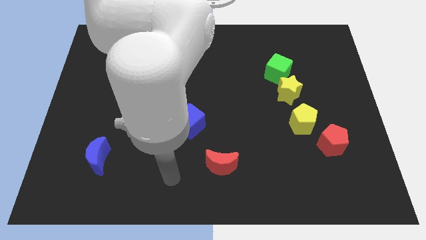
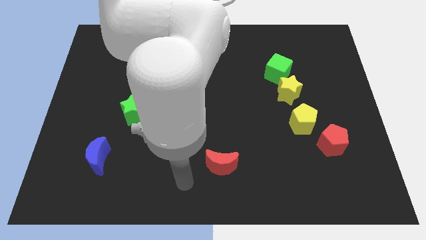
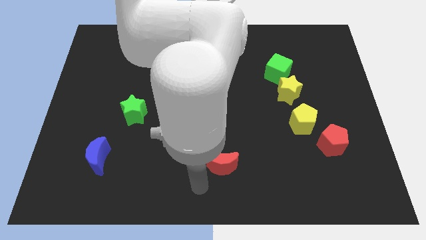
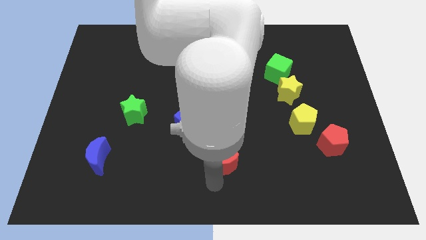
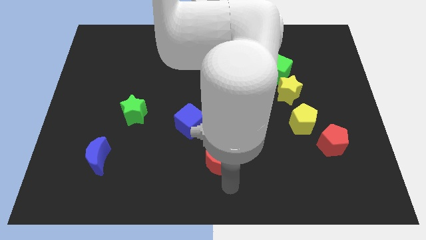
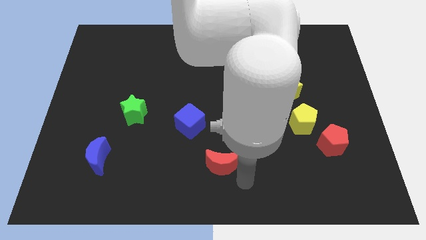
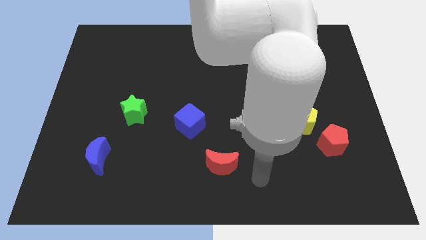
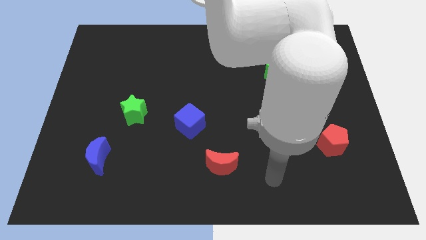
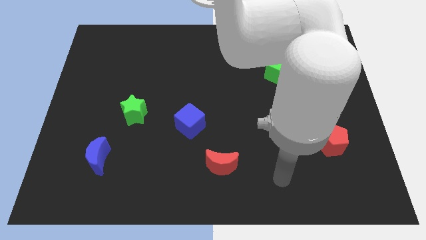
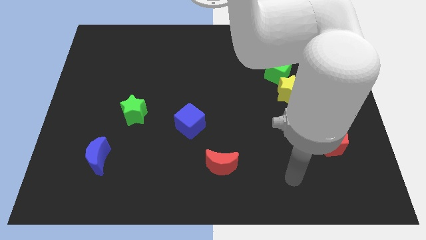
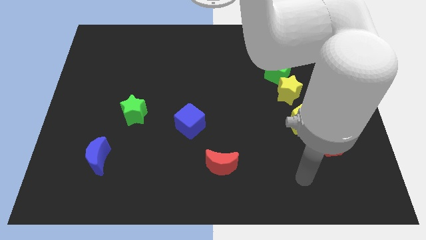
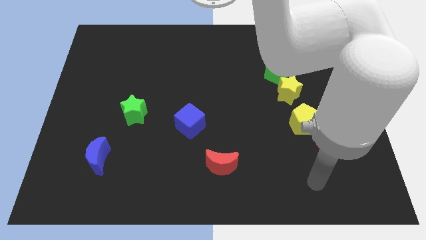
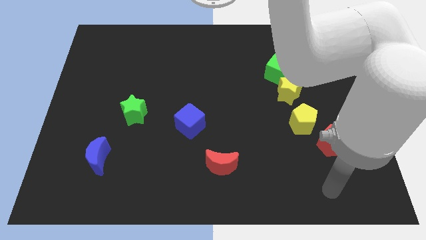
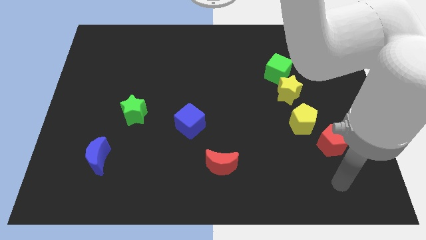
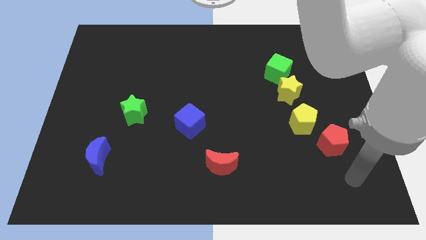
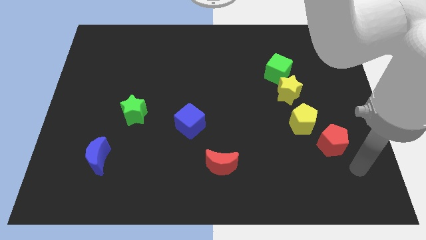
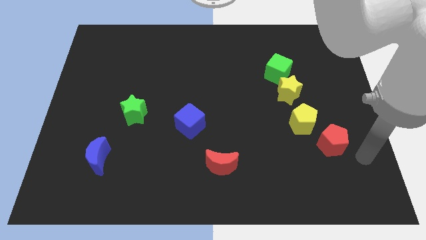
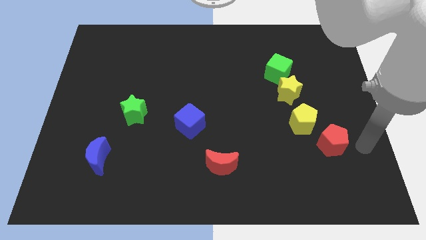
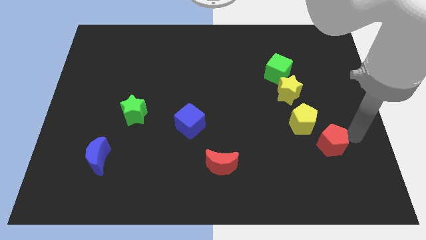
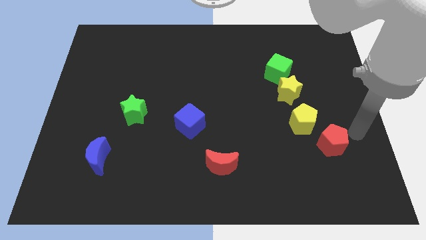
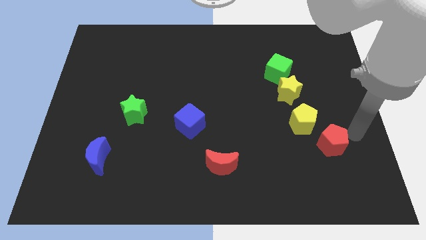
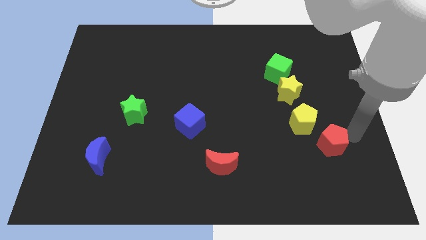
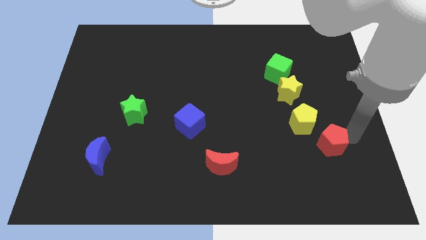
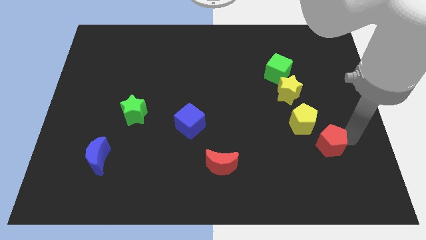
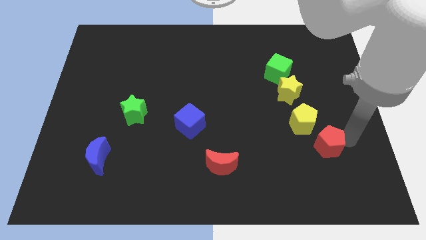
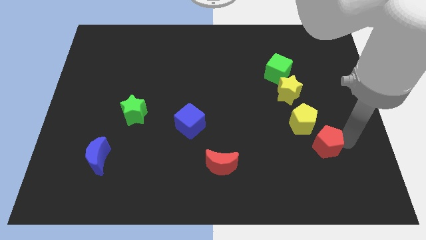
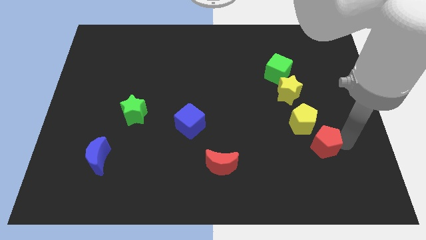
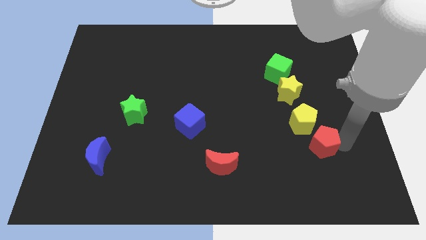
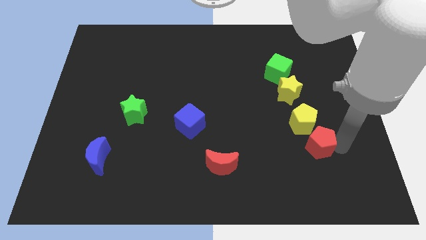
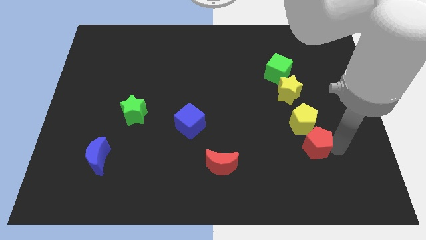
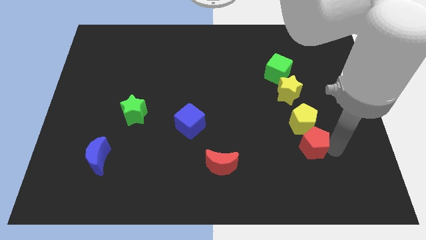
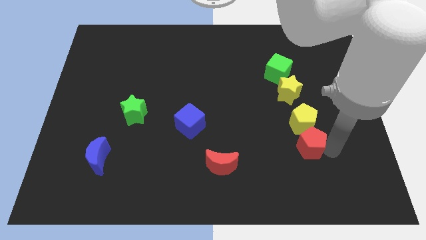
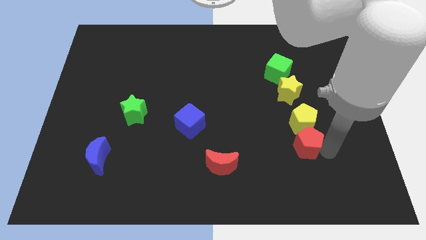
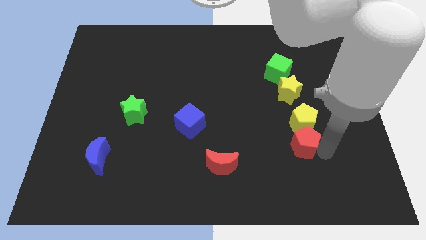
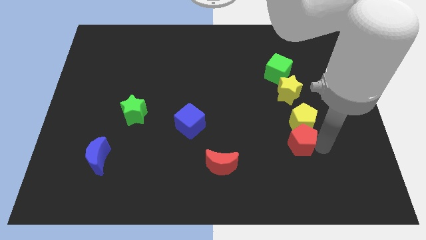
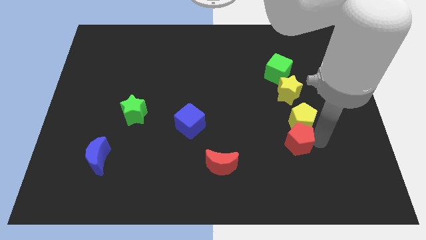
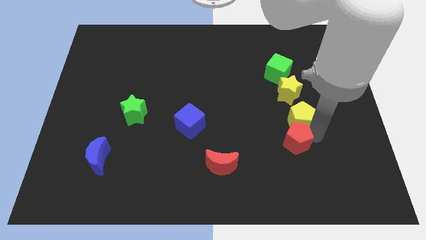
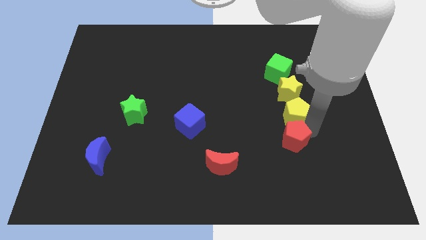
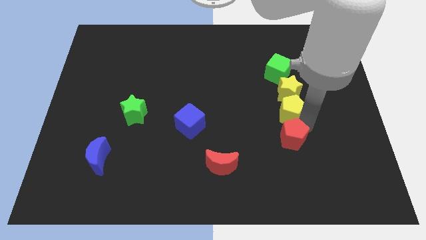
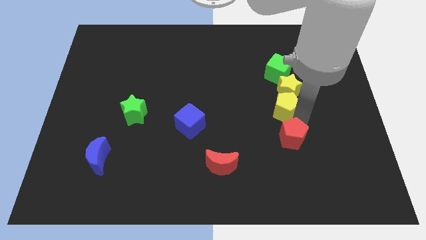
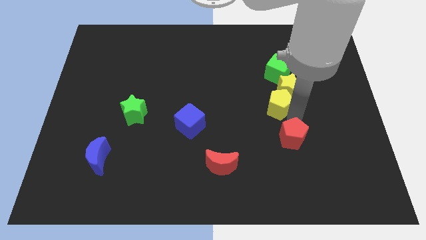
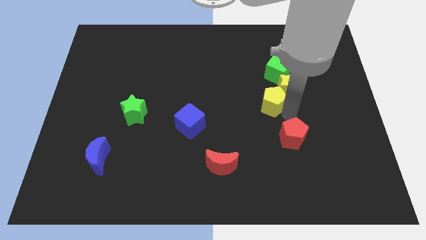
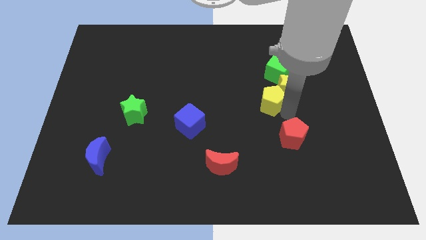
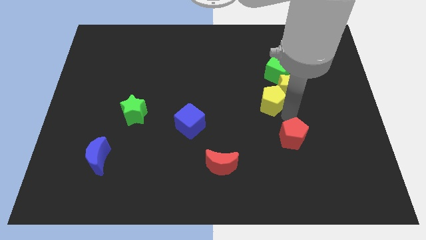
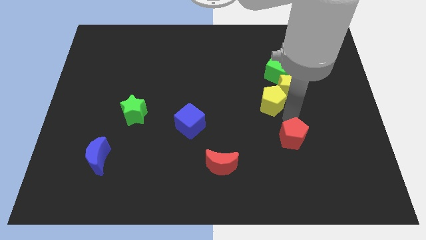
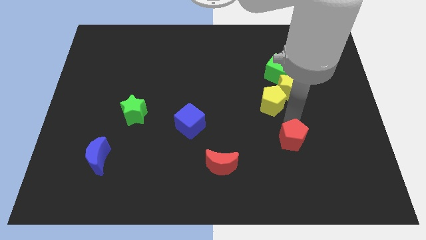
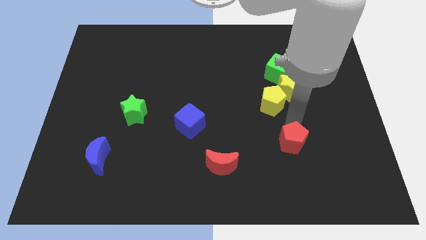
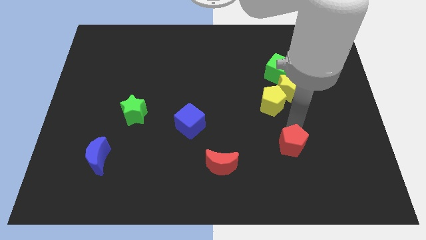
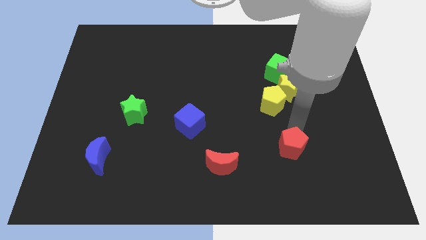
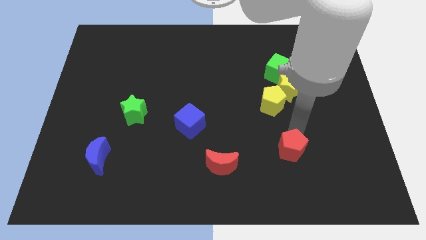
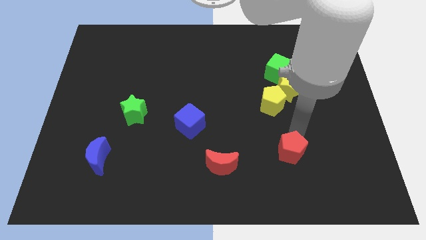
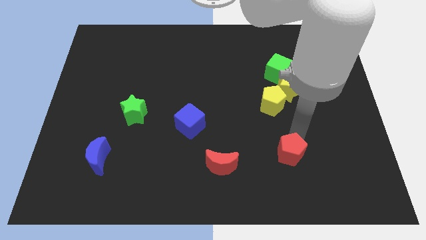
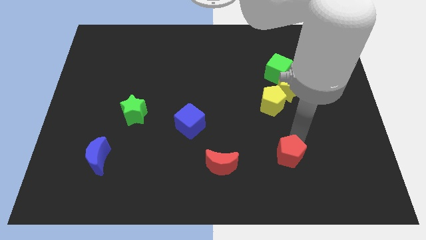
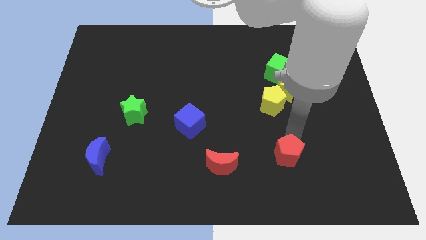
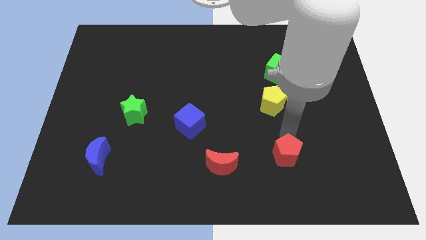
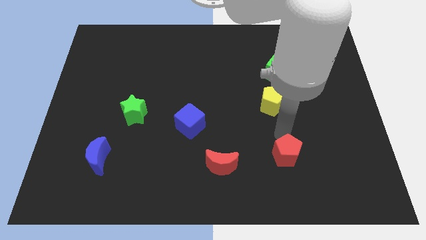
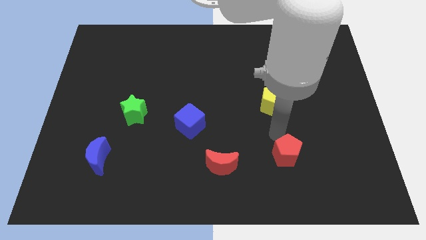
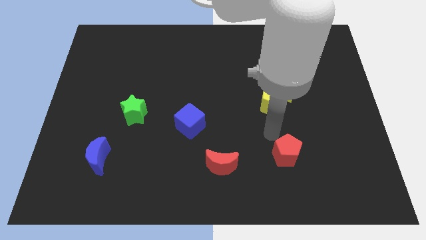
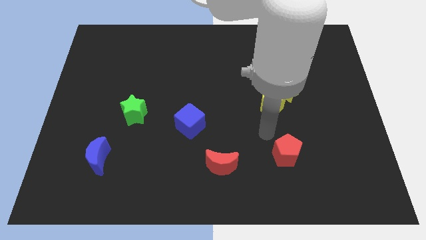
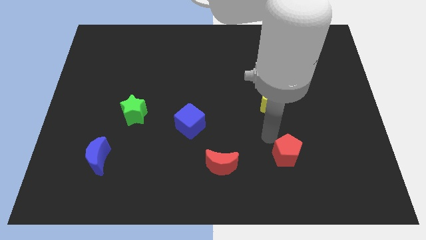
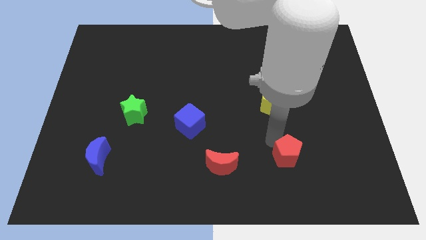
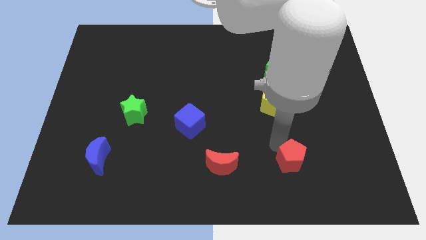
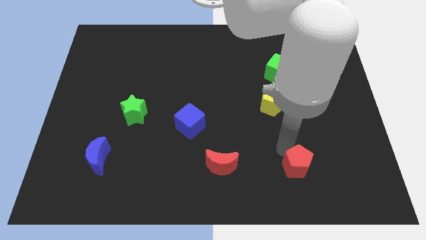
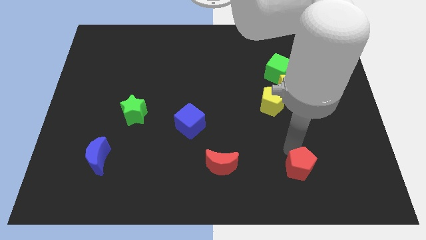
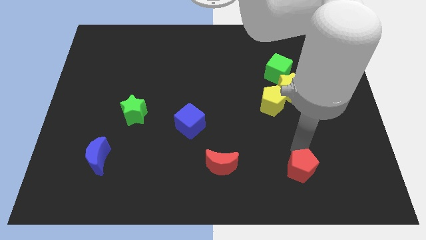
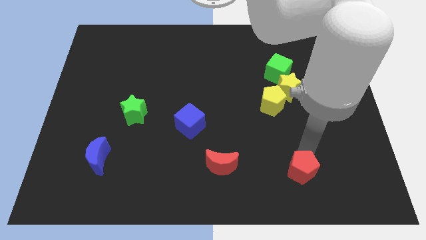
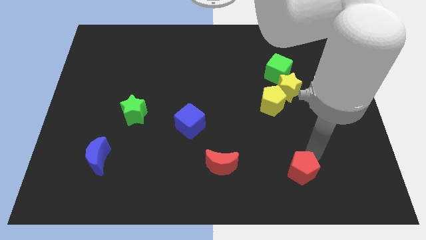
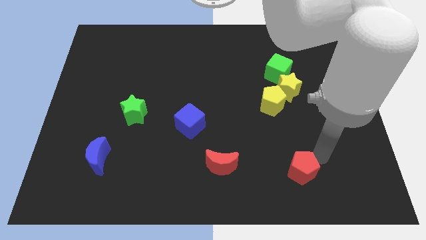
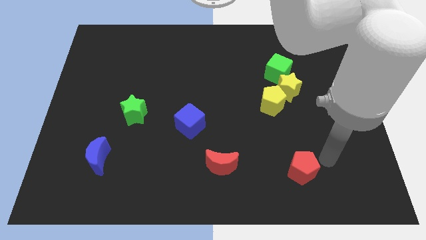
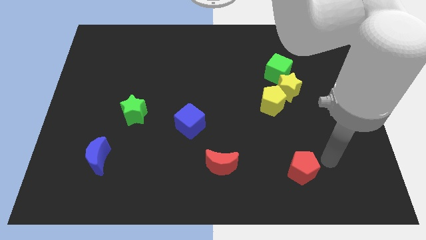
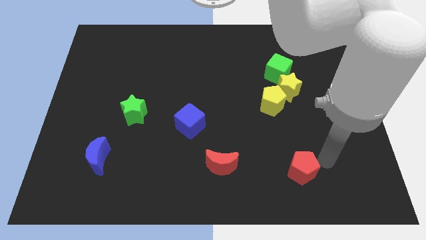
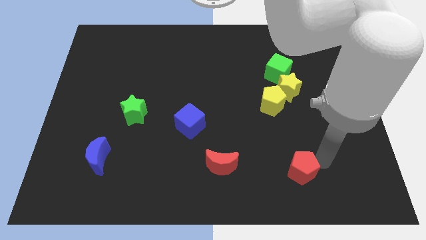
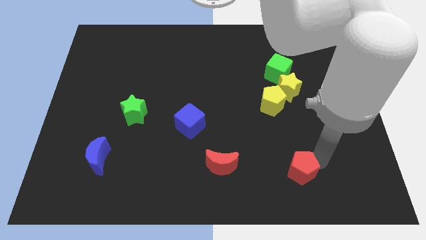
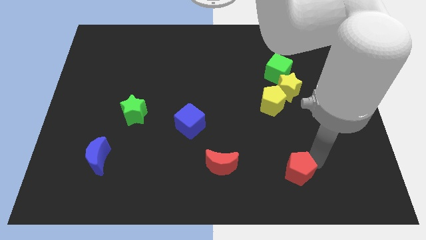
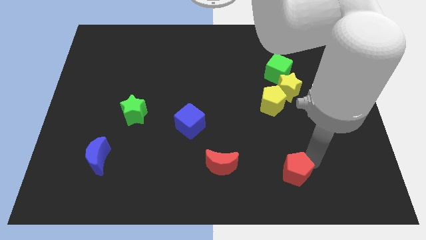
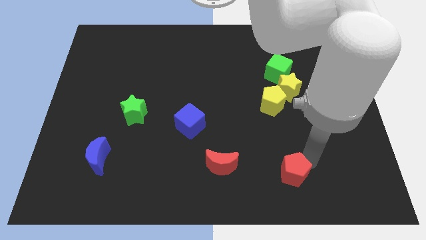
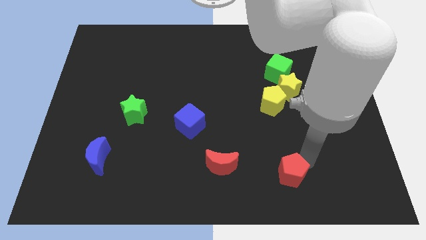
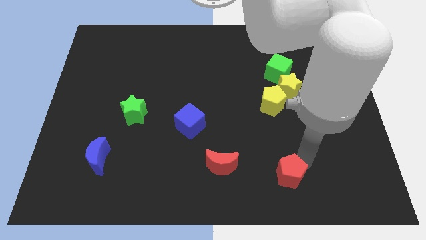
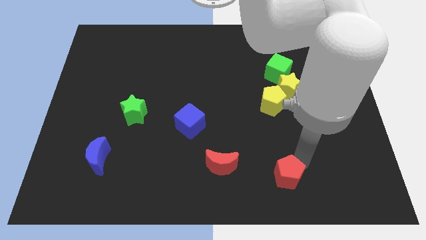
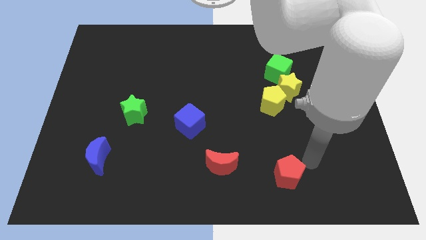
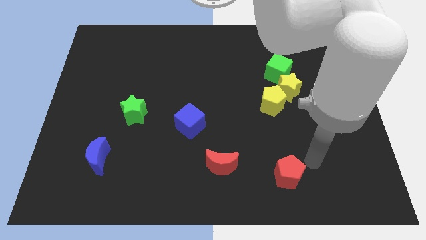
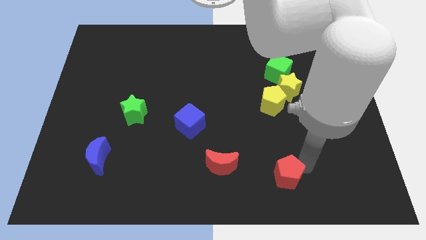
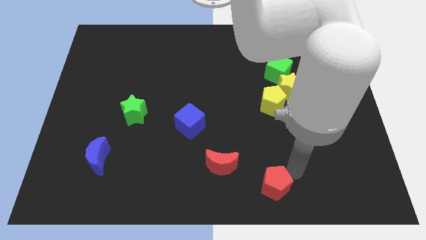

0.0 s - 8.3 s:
put the red pentagon to the bottom
